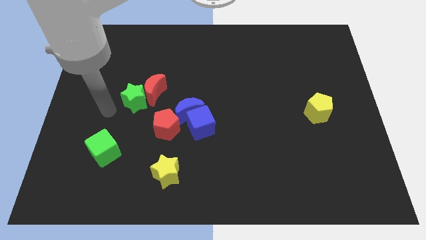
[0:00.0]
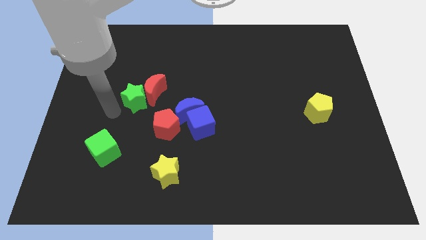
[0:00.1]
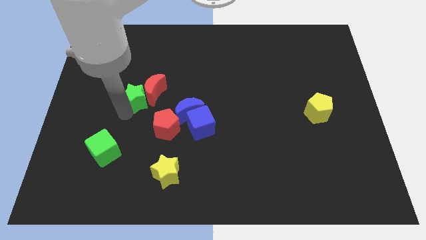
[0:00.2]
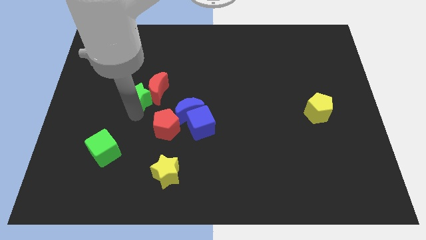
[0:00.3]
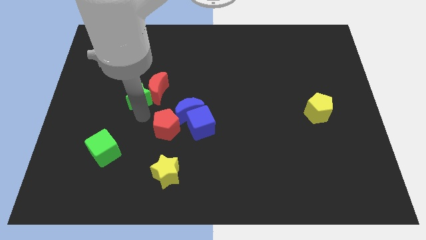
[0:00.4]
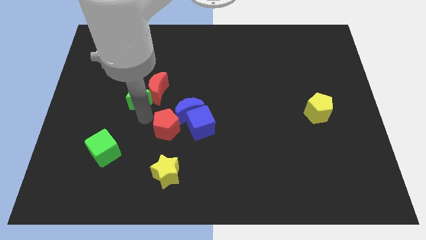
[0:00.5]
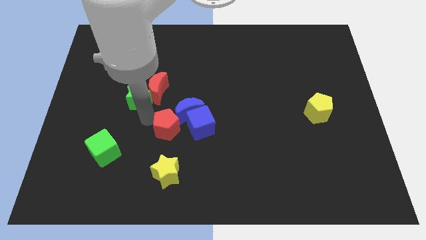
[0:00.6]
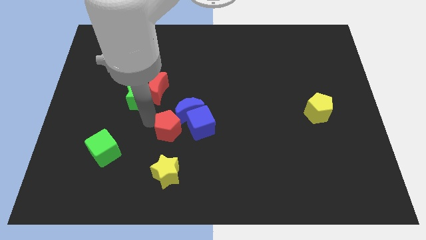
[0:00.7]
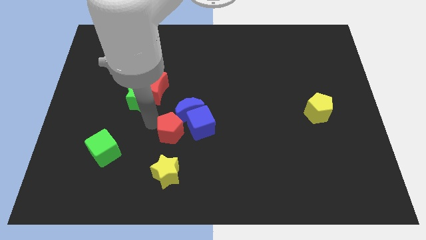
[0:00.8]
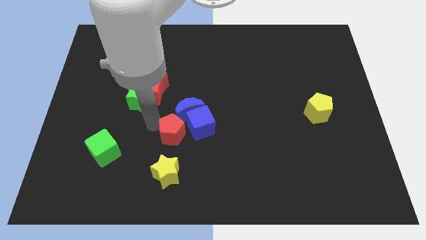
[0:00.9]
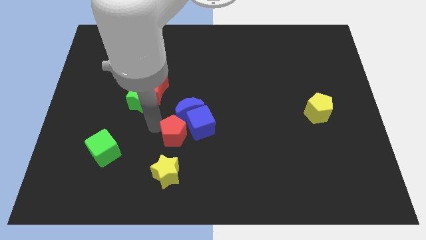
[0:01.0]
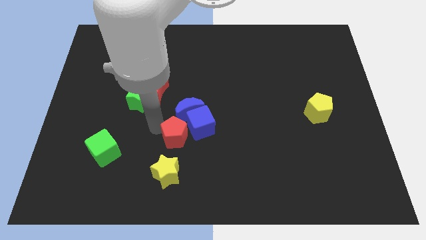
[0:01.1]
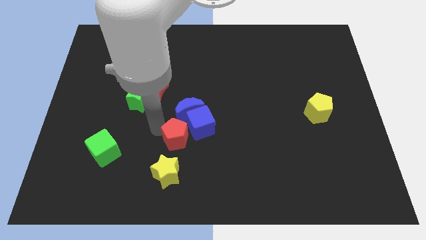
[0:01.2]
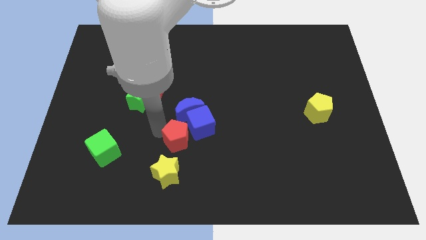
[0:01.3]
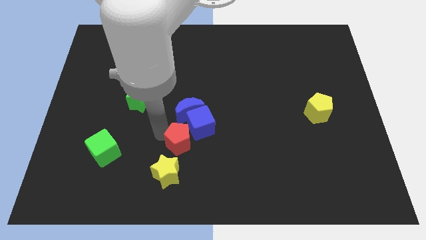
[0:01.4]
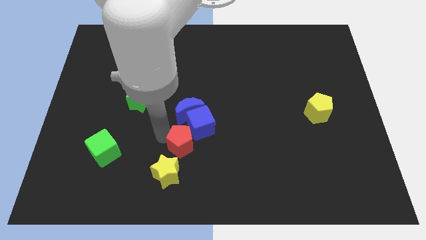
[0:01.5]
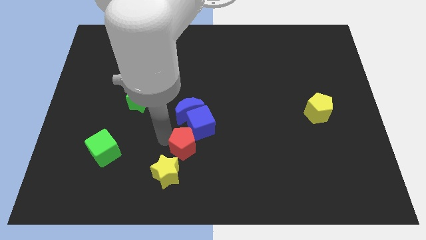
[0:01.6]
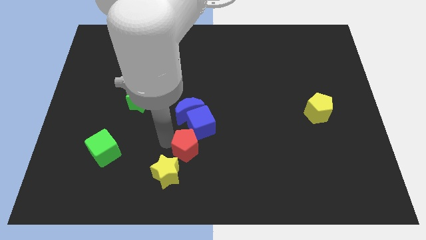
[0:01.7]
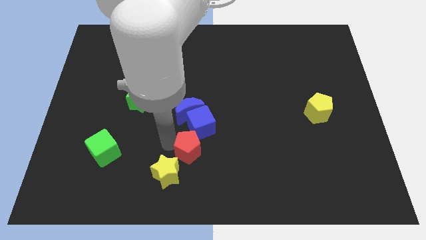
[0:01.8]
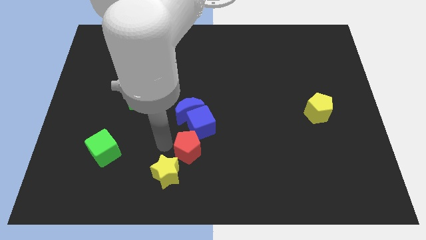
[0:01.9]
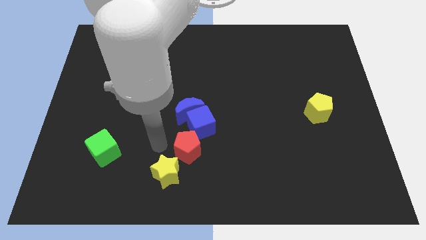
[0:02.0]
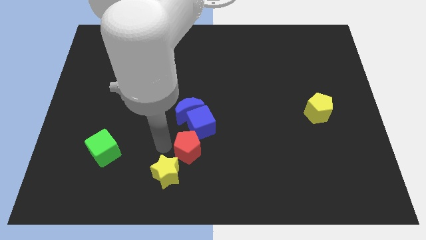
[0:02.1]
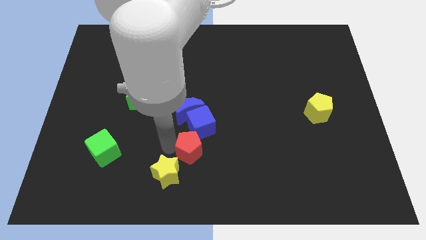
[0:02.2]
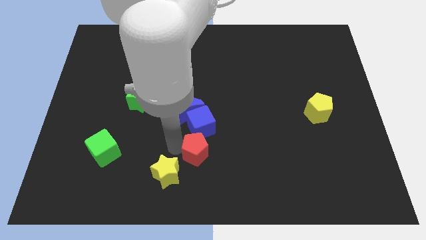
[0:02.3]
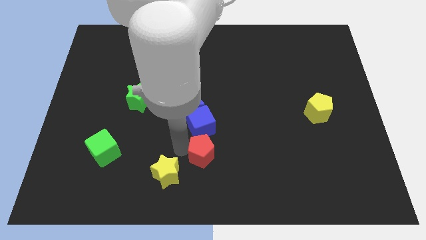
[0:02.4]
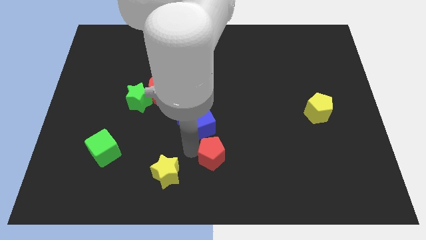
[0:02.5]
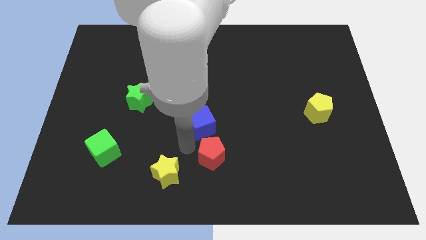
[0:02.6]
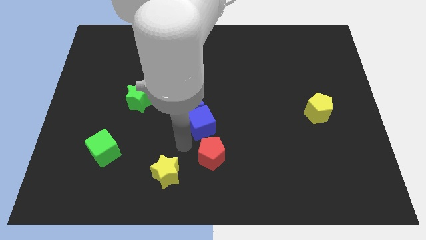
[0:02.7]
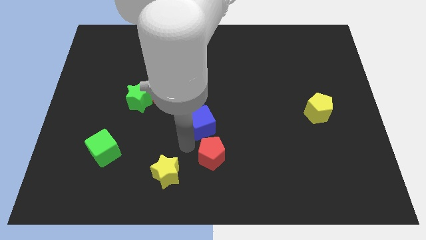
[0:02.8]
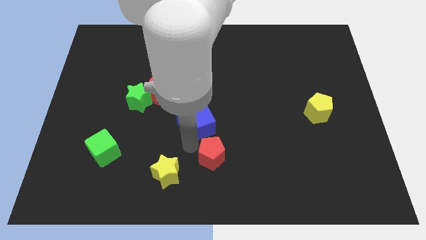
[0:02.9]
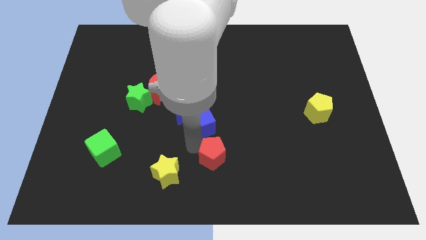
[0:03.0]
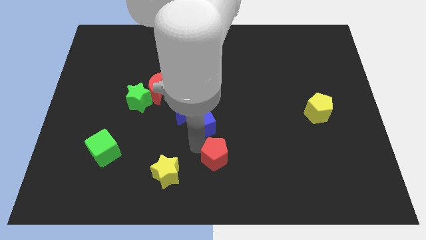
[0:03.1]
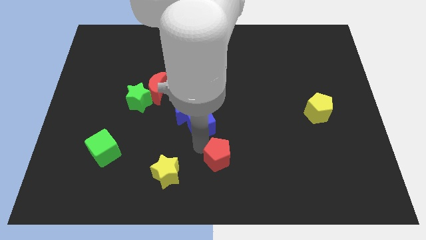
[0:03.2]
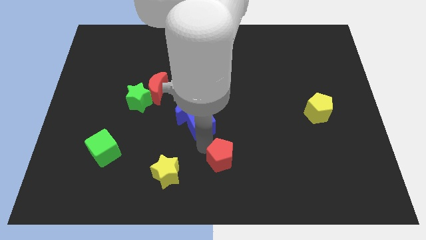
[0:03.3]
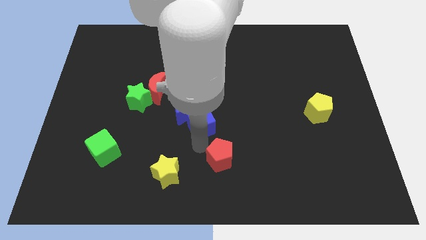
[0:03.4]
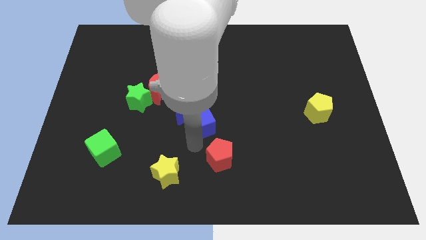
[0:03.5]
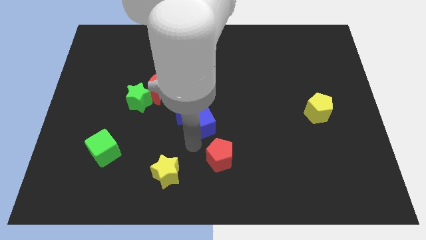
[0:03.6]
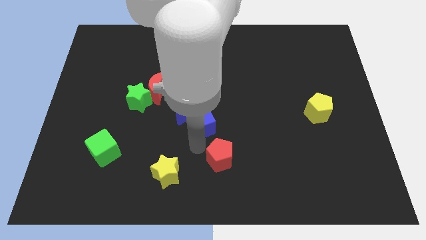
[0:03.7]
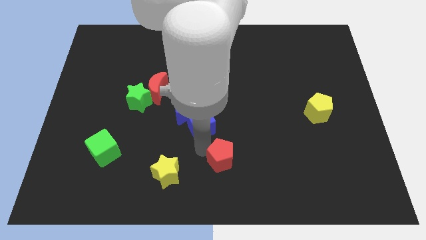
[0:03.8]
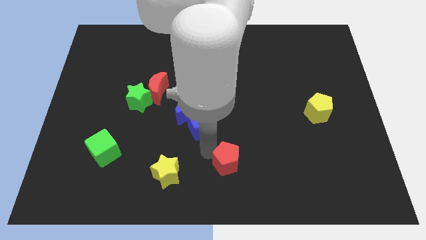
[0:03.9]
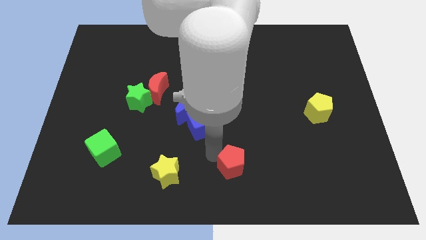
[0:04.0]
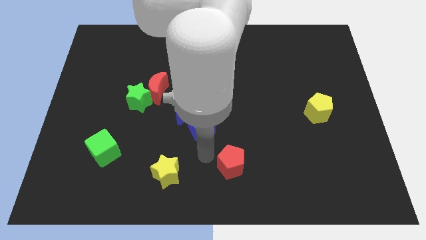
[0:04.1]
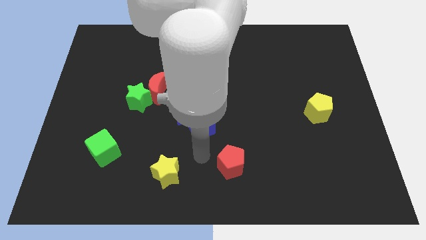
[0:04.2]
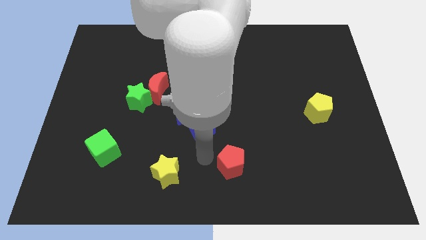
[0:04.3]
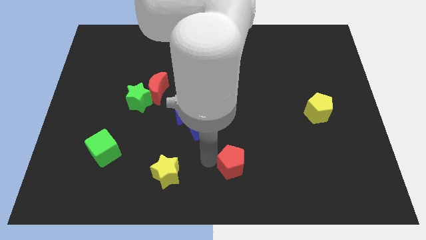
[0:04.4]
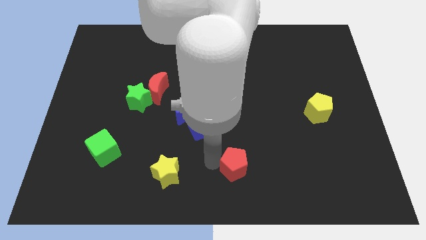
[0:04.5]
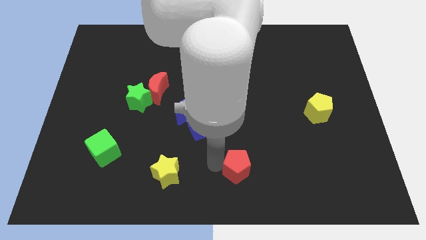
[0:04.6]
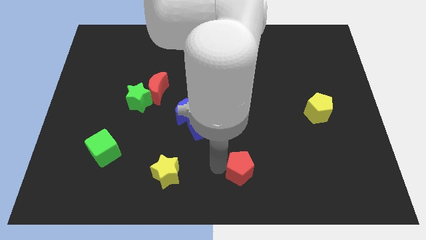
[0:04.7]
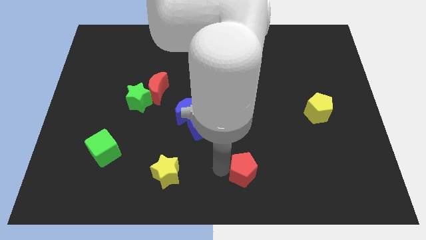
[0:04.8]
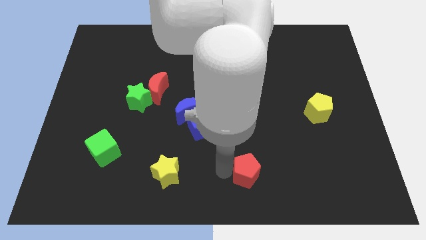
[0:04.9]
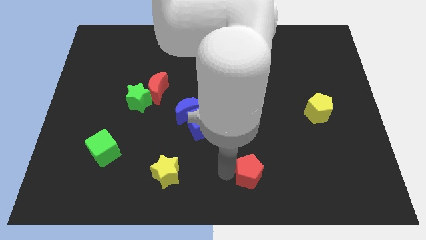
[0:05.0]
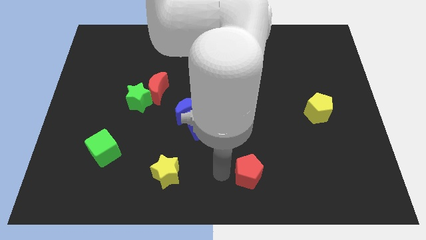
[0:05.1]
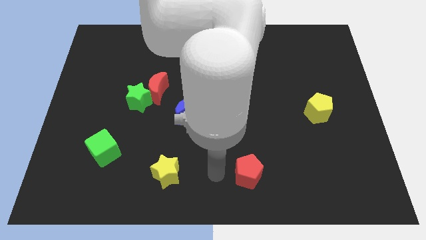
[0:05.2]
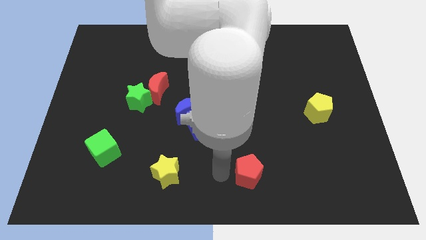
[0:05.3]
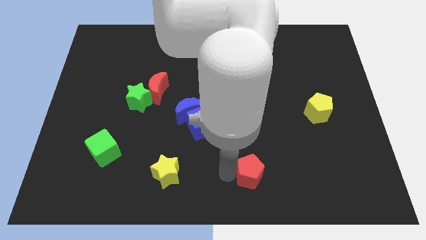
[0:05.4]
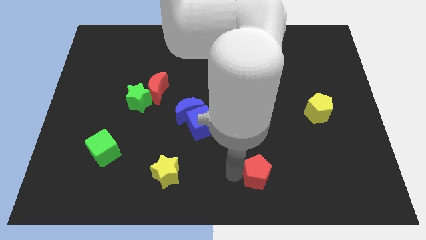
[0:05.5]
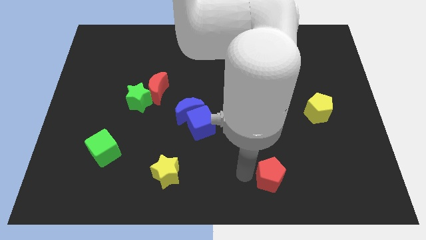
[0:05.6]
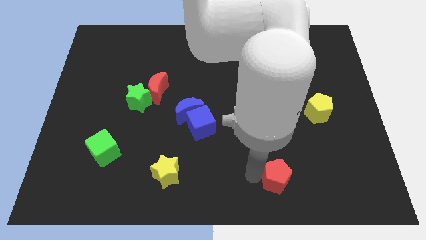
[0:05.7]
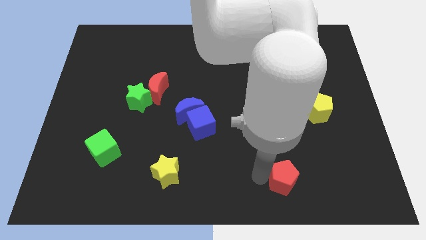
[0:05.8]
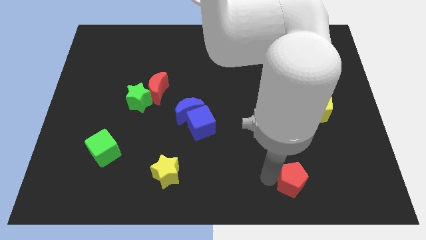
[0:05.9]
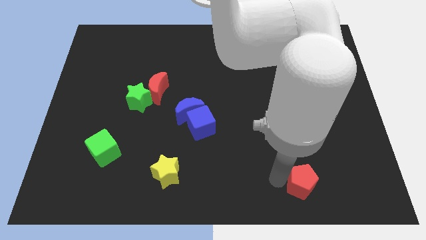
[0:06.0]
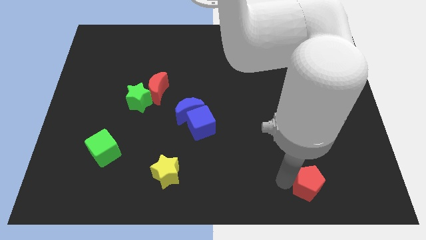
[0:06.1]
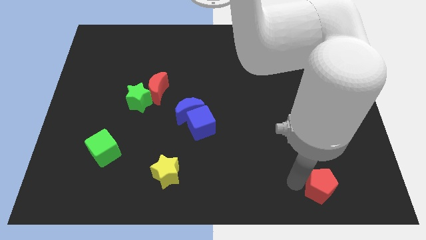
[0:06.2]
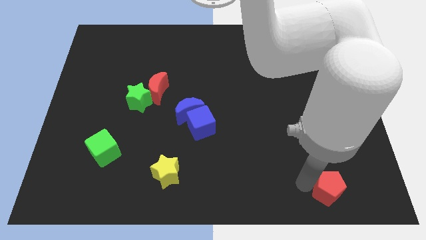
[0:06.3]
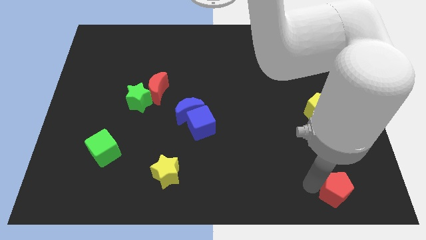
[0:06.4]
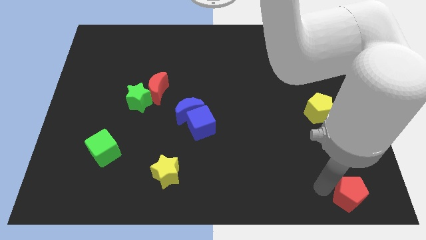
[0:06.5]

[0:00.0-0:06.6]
push the red pentagon to the bottom right of the board

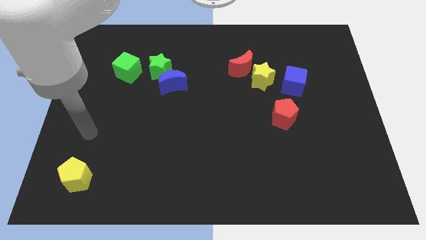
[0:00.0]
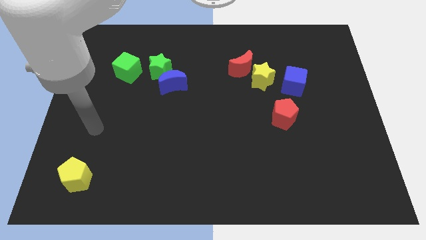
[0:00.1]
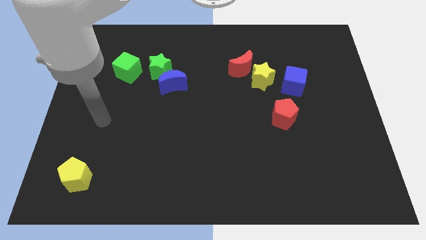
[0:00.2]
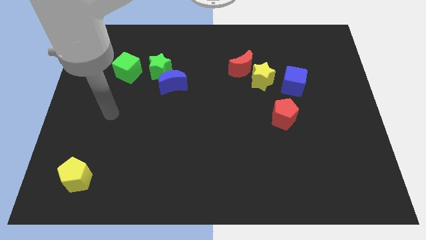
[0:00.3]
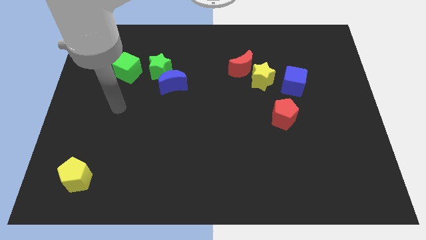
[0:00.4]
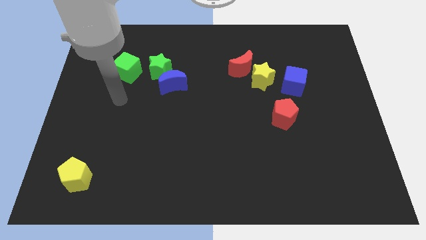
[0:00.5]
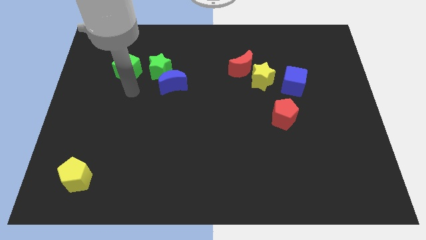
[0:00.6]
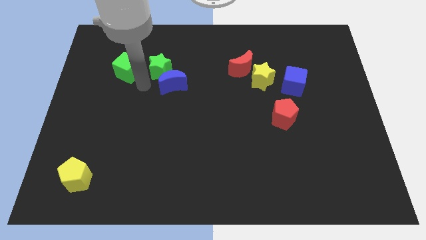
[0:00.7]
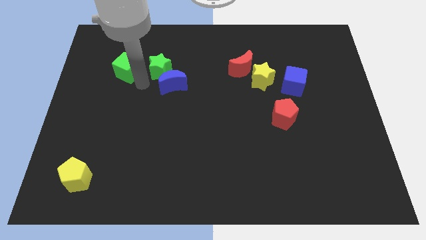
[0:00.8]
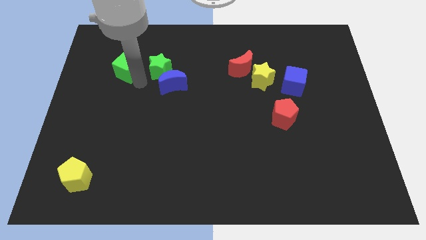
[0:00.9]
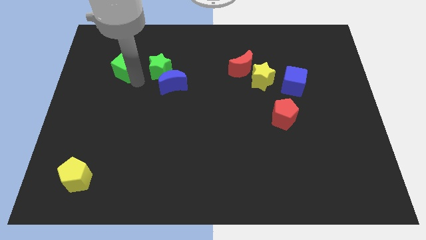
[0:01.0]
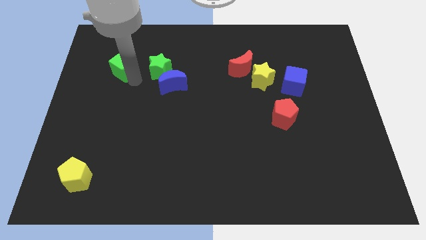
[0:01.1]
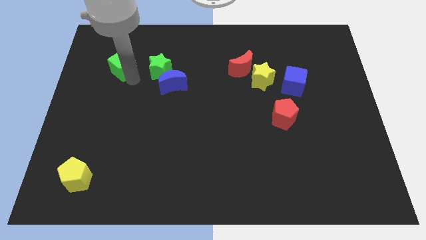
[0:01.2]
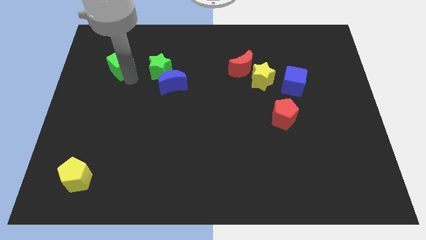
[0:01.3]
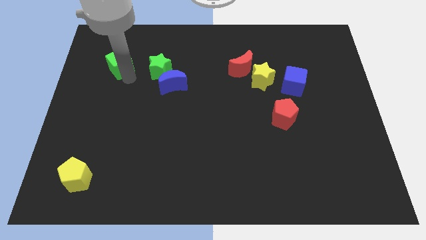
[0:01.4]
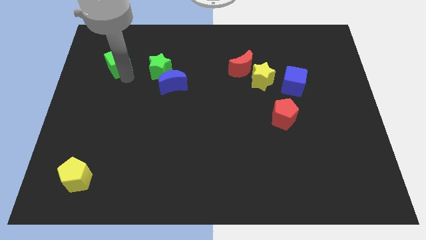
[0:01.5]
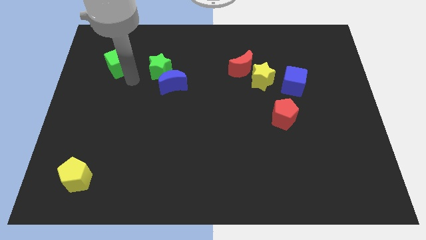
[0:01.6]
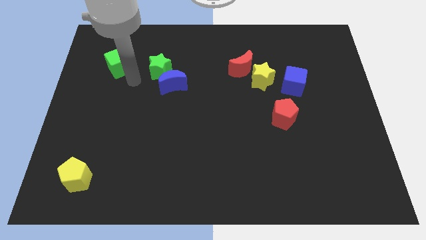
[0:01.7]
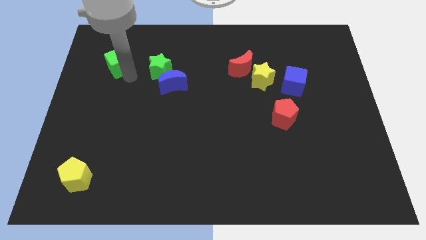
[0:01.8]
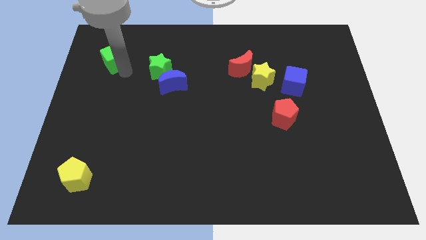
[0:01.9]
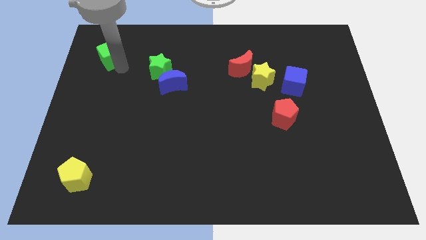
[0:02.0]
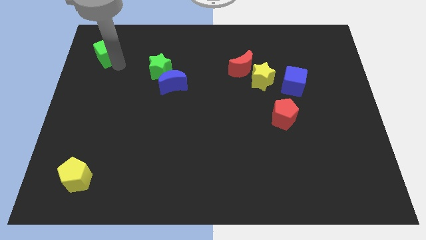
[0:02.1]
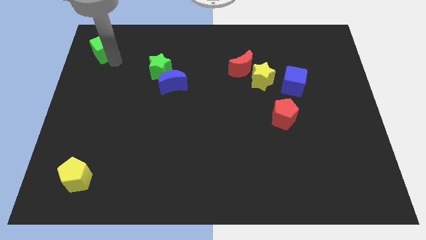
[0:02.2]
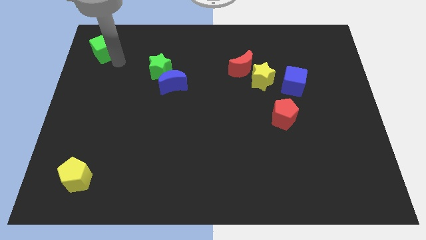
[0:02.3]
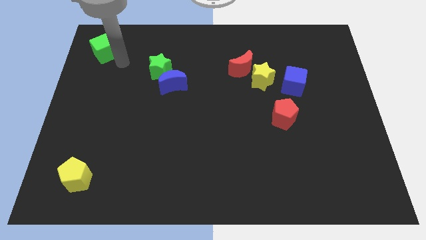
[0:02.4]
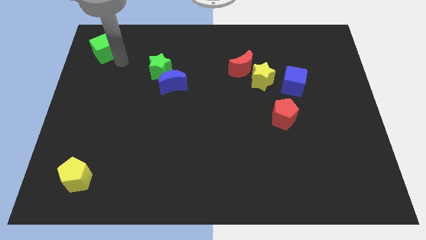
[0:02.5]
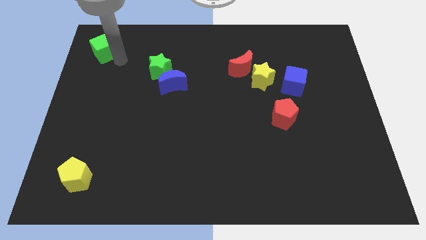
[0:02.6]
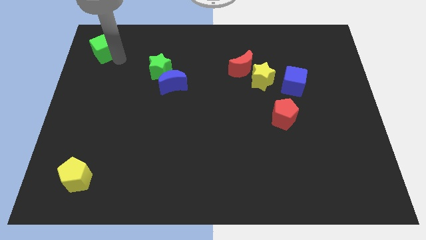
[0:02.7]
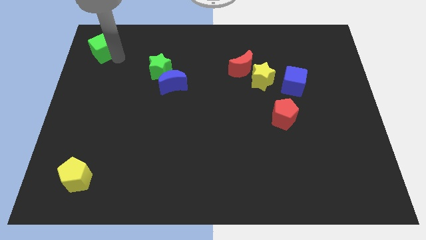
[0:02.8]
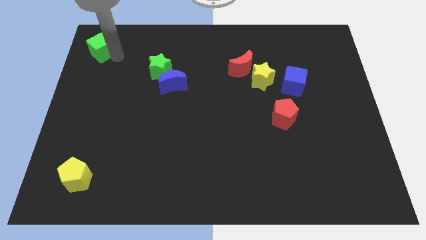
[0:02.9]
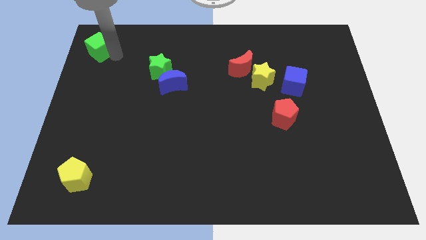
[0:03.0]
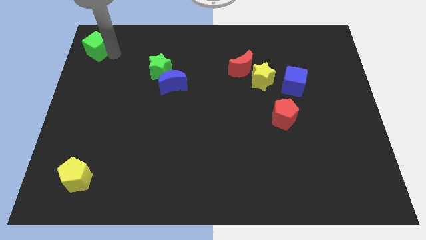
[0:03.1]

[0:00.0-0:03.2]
slide the green cube to the top left
